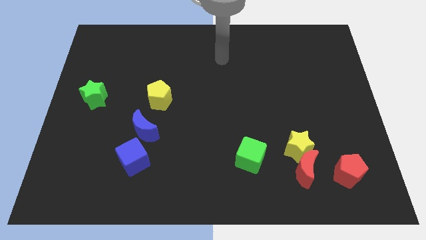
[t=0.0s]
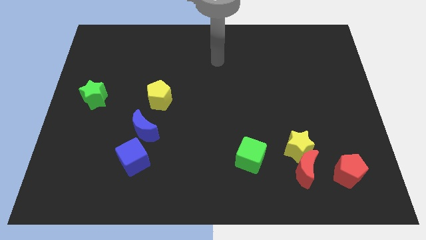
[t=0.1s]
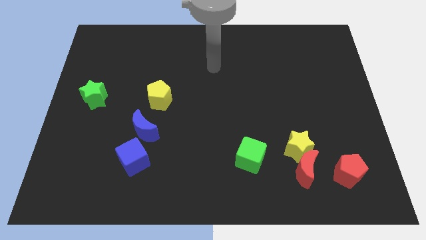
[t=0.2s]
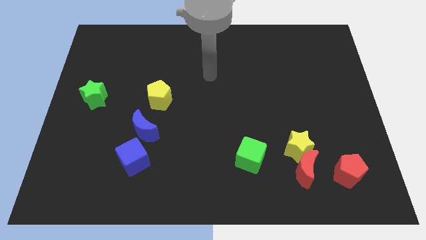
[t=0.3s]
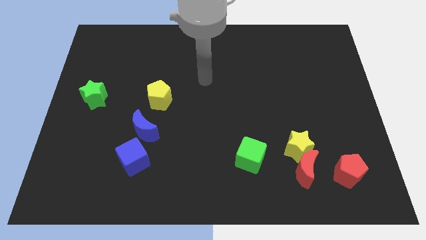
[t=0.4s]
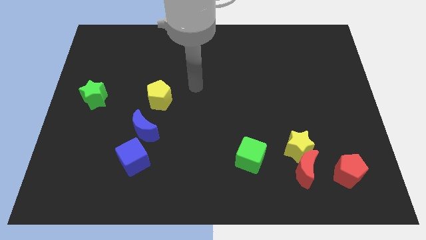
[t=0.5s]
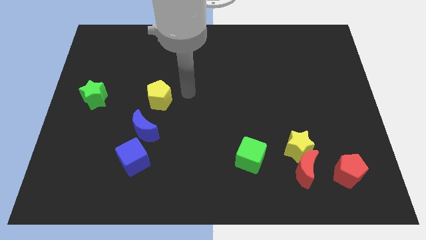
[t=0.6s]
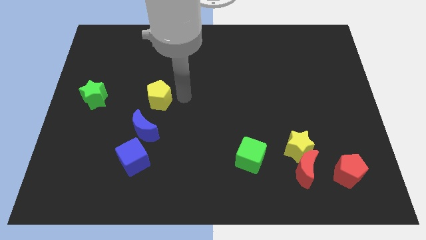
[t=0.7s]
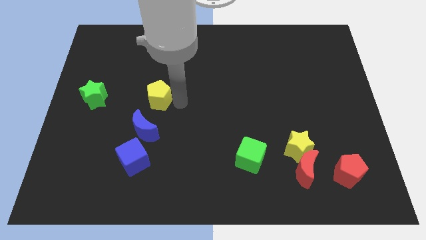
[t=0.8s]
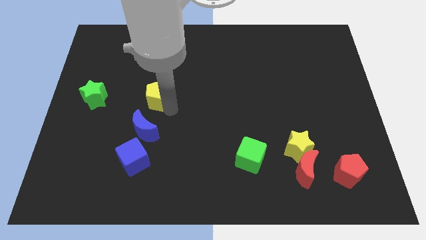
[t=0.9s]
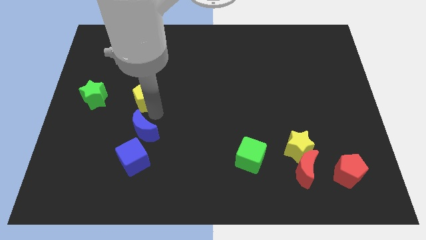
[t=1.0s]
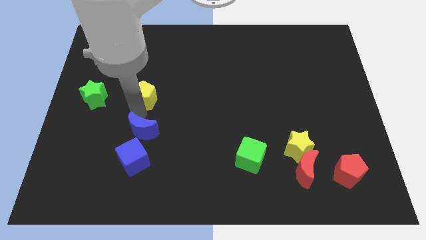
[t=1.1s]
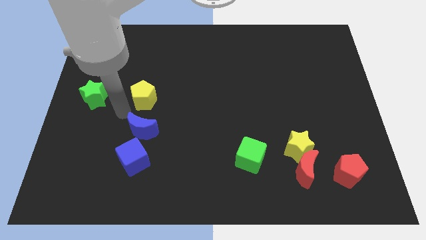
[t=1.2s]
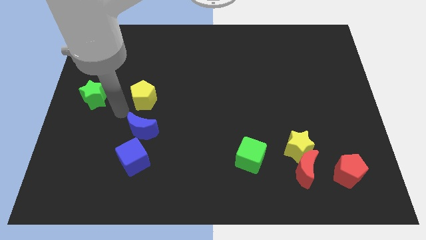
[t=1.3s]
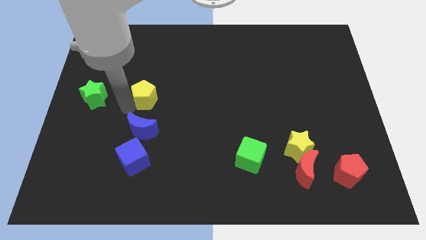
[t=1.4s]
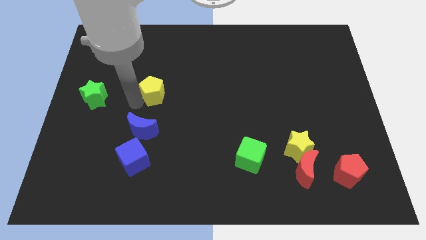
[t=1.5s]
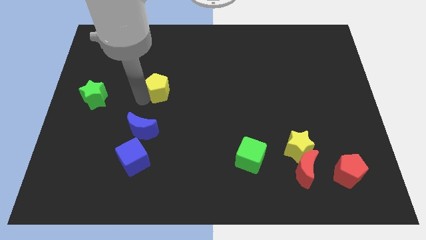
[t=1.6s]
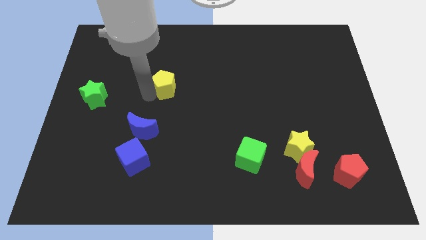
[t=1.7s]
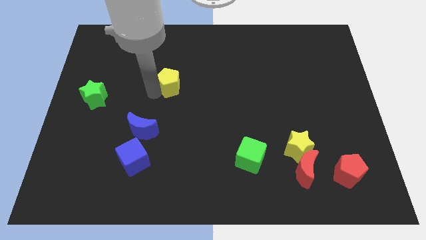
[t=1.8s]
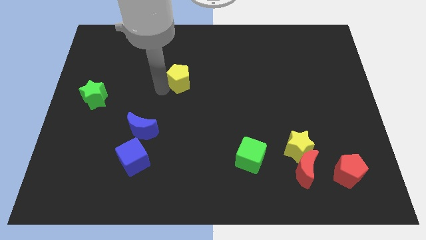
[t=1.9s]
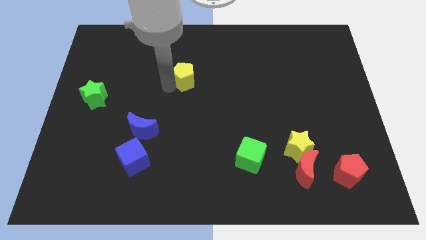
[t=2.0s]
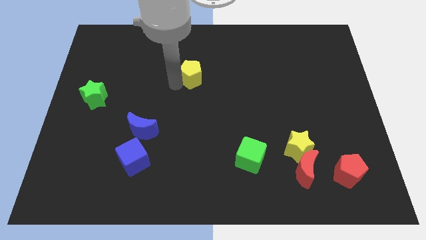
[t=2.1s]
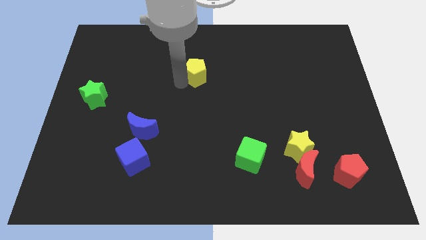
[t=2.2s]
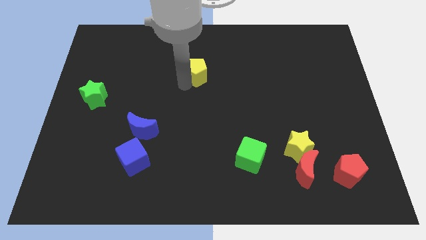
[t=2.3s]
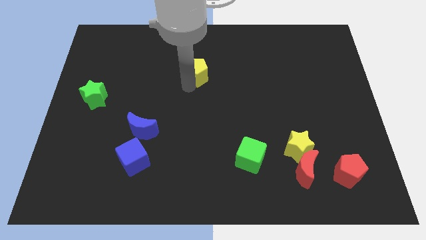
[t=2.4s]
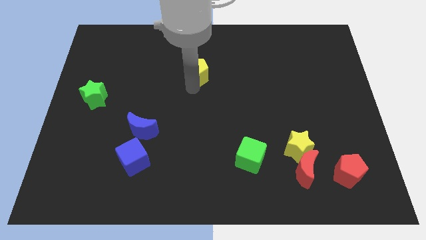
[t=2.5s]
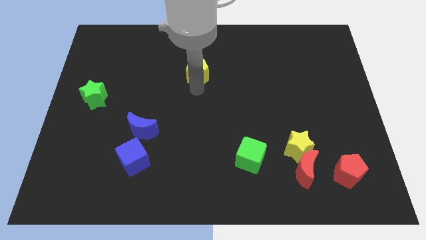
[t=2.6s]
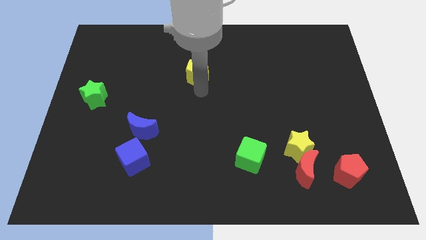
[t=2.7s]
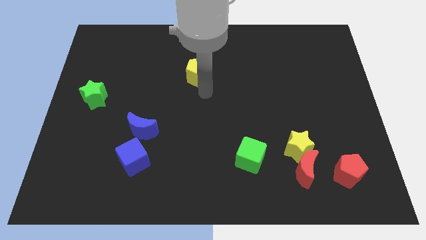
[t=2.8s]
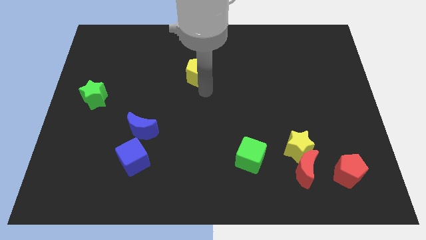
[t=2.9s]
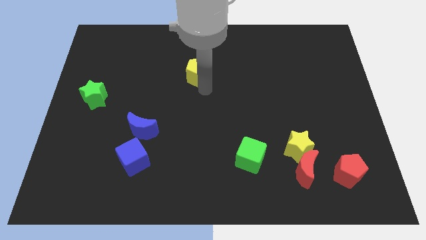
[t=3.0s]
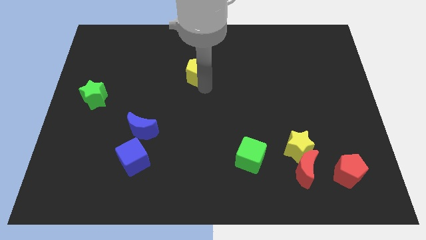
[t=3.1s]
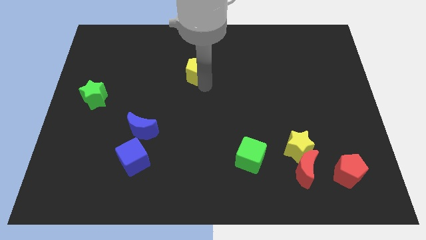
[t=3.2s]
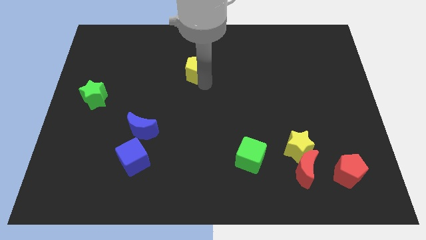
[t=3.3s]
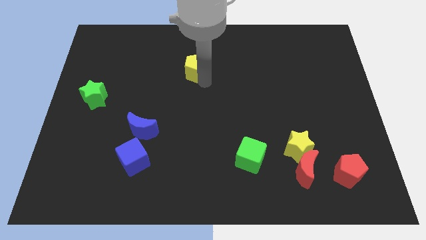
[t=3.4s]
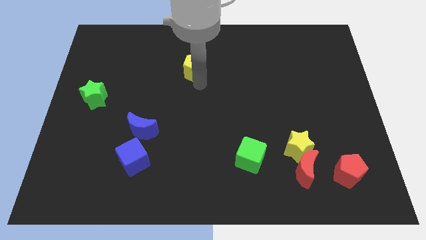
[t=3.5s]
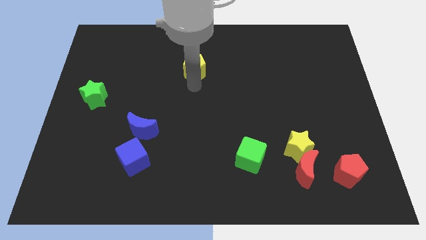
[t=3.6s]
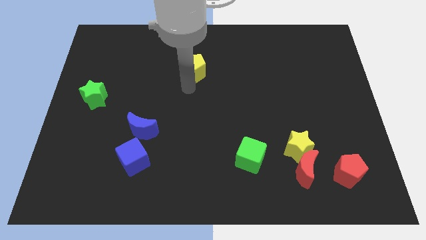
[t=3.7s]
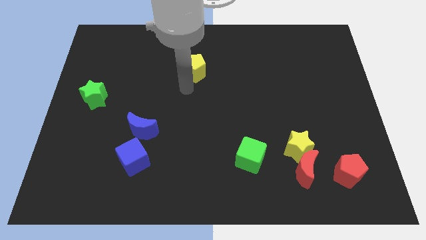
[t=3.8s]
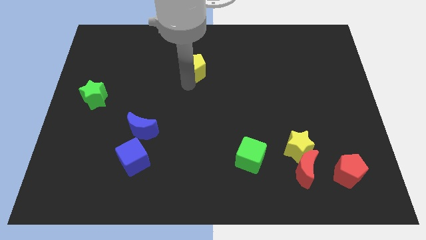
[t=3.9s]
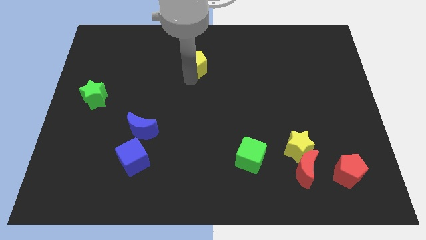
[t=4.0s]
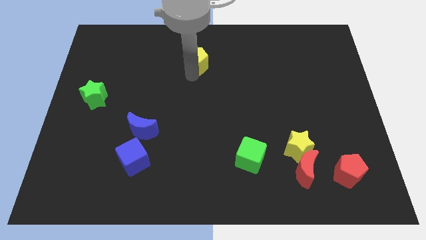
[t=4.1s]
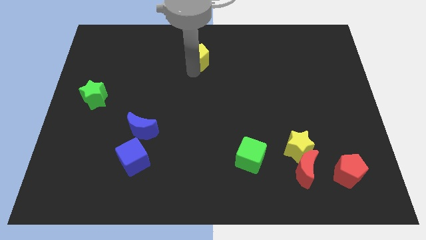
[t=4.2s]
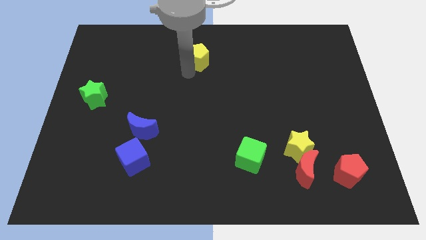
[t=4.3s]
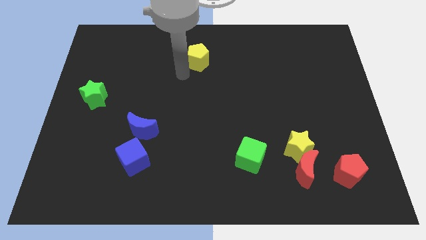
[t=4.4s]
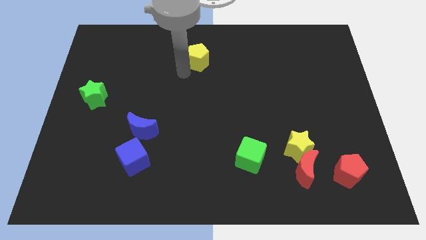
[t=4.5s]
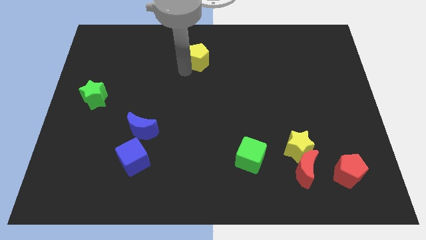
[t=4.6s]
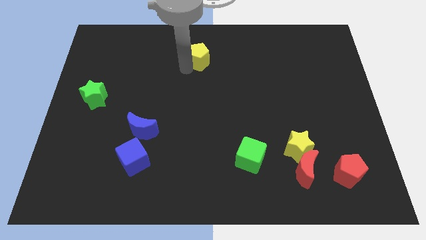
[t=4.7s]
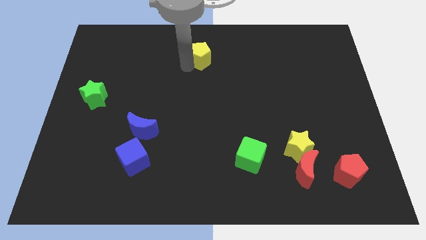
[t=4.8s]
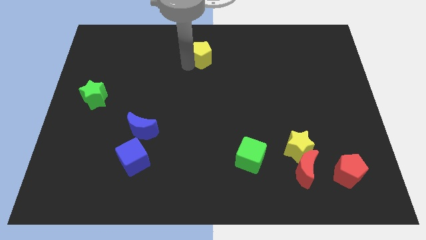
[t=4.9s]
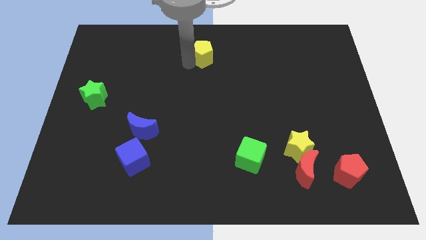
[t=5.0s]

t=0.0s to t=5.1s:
slide the yellow pentagon to the top

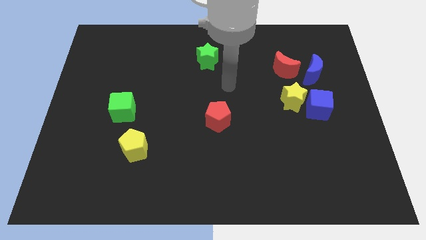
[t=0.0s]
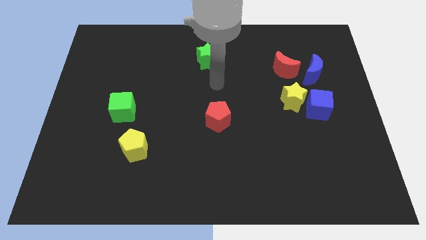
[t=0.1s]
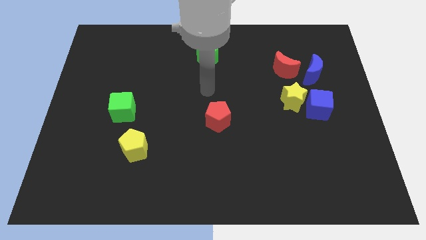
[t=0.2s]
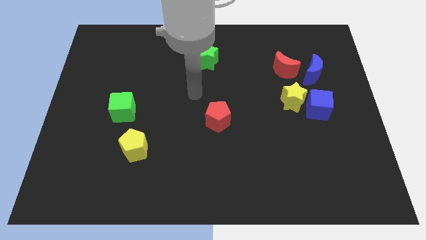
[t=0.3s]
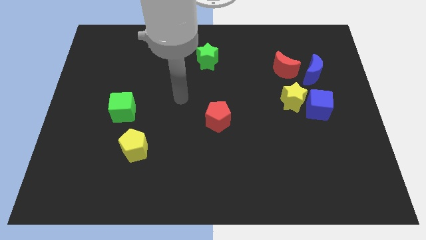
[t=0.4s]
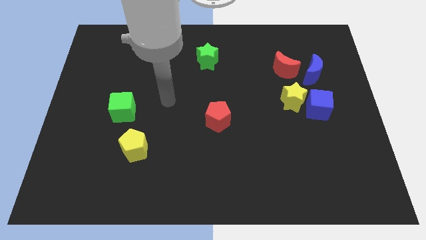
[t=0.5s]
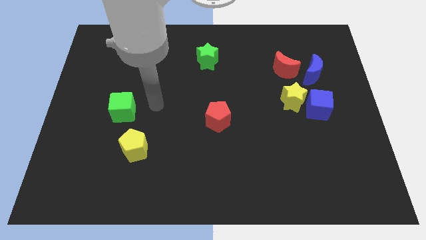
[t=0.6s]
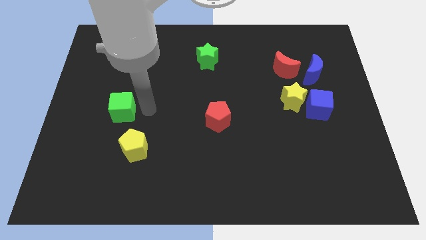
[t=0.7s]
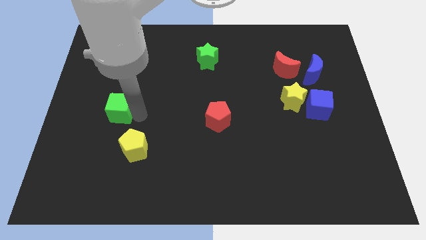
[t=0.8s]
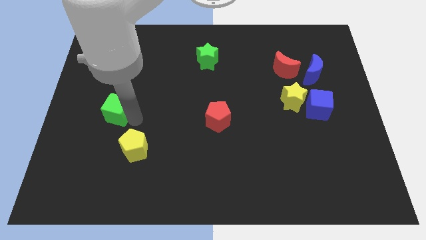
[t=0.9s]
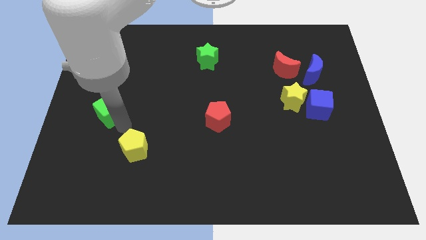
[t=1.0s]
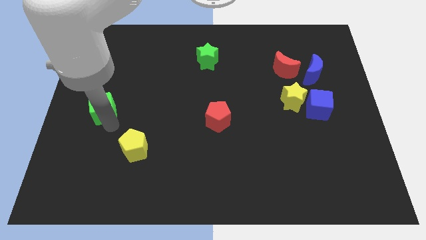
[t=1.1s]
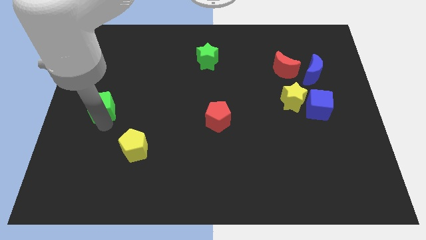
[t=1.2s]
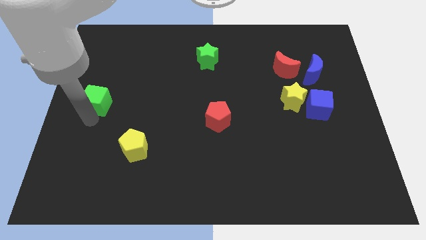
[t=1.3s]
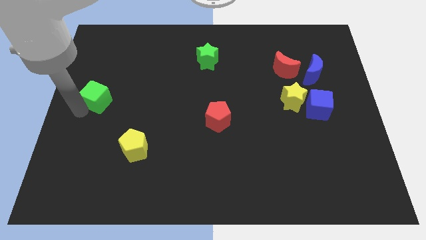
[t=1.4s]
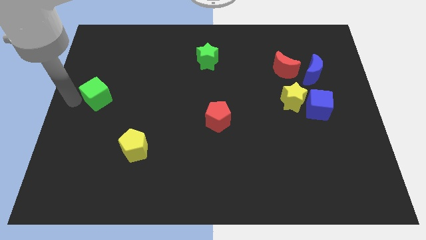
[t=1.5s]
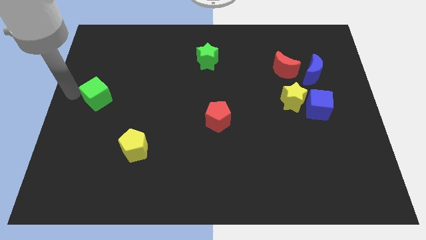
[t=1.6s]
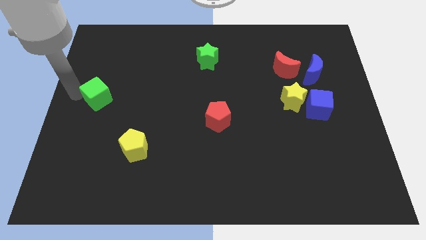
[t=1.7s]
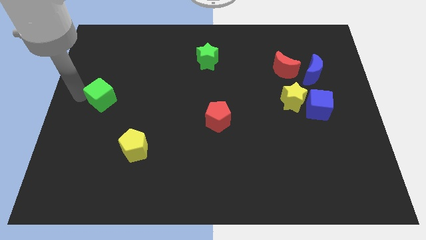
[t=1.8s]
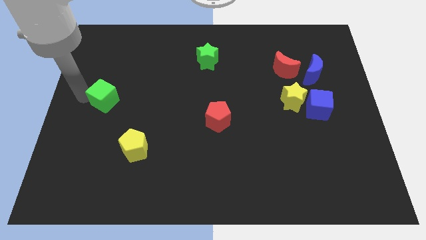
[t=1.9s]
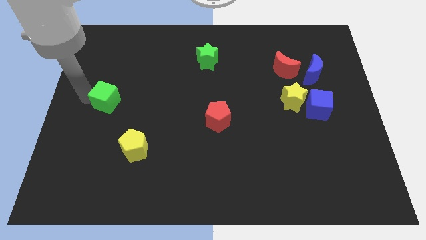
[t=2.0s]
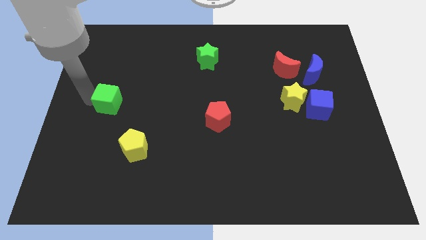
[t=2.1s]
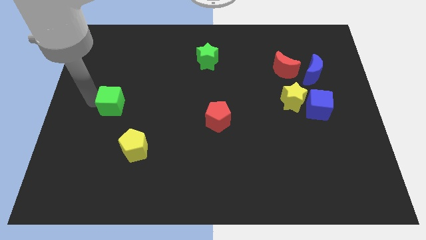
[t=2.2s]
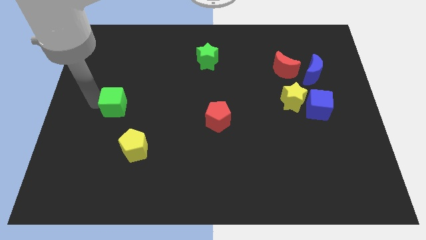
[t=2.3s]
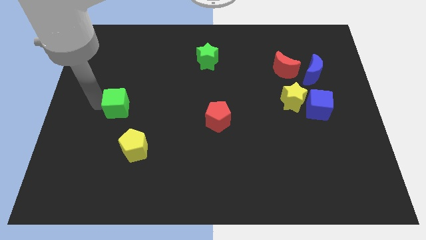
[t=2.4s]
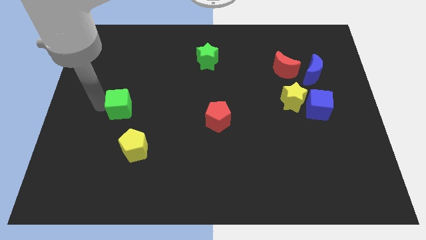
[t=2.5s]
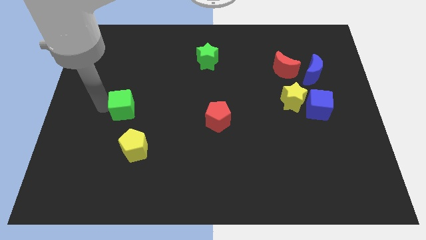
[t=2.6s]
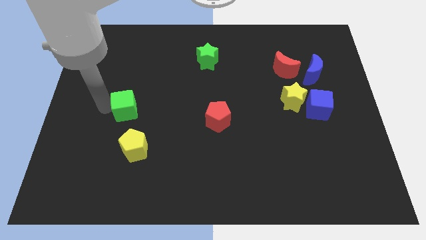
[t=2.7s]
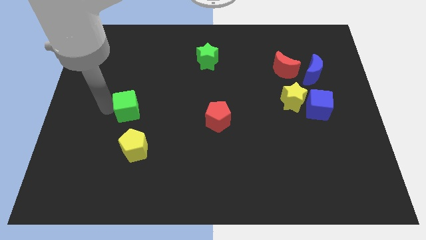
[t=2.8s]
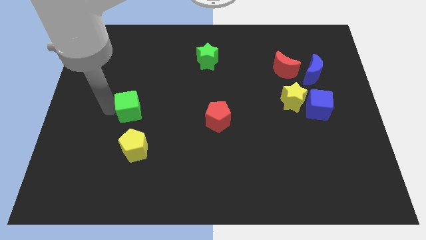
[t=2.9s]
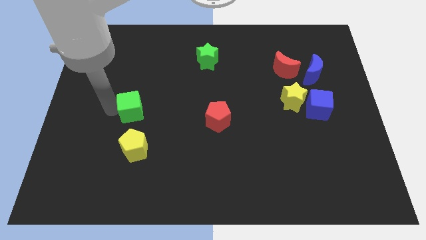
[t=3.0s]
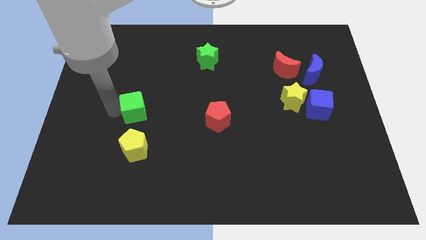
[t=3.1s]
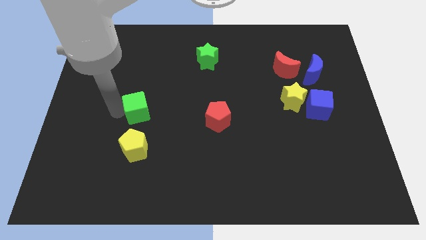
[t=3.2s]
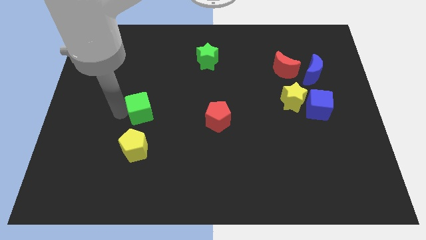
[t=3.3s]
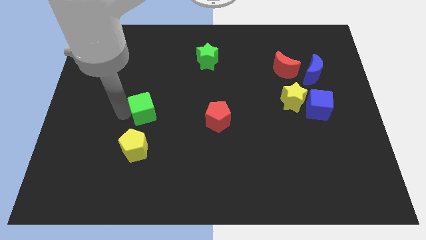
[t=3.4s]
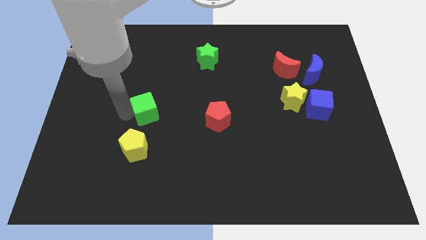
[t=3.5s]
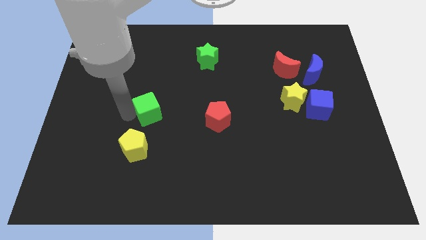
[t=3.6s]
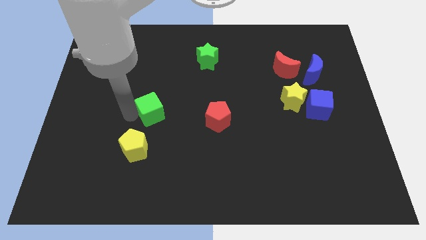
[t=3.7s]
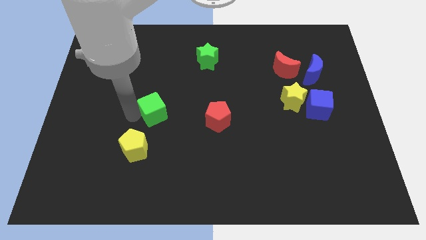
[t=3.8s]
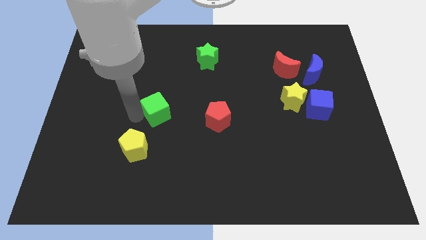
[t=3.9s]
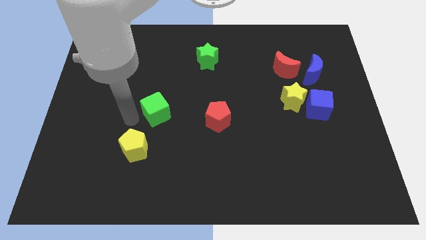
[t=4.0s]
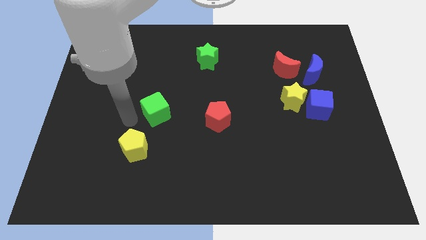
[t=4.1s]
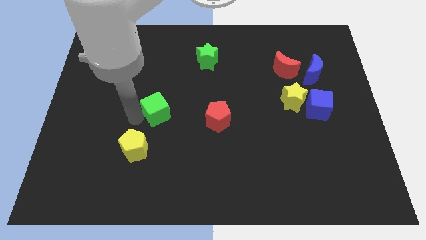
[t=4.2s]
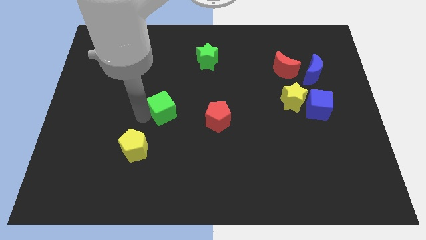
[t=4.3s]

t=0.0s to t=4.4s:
put the green cube to the center
